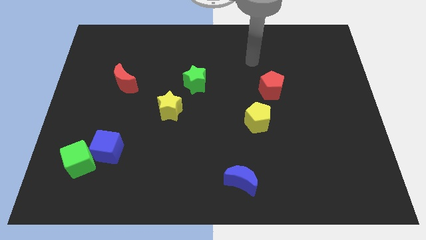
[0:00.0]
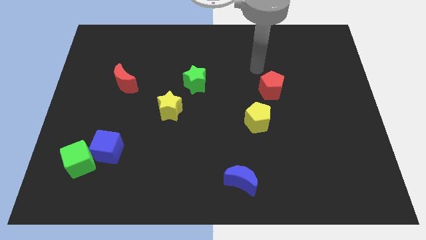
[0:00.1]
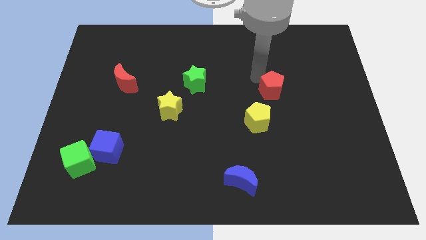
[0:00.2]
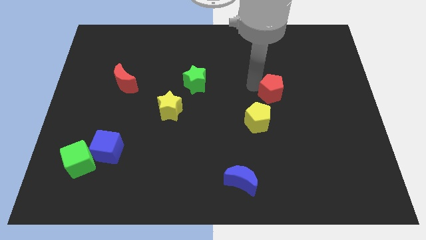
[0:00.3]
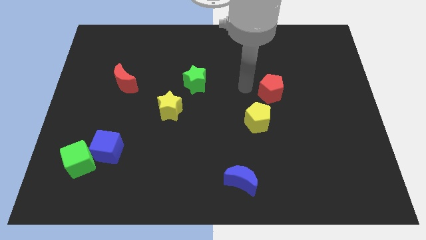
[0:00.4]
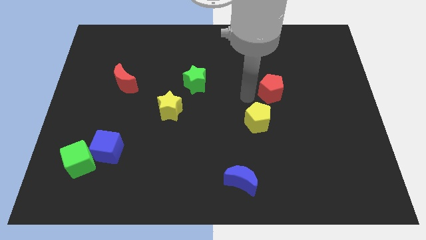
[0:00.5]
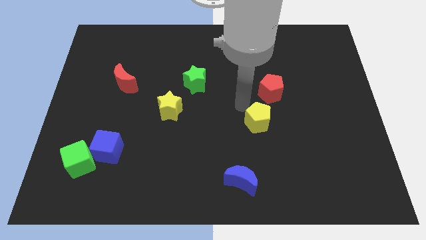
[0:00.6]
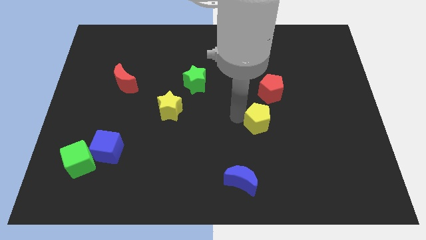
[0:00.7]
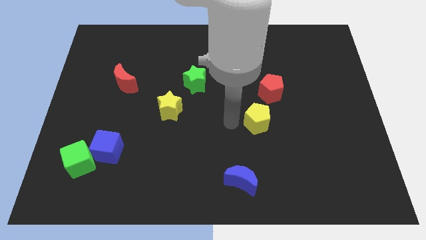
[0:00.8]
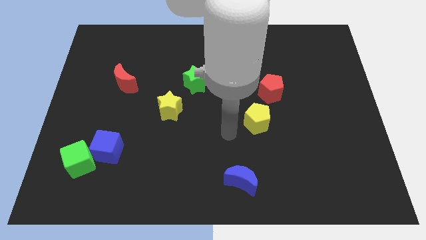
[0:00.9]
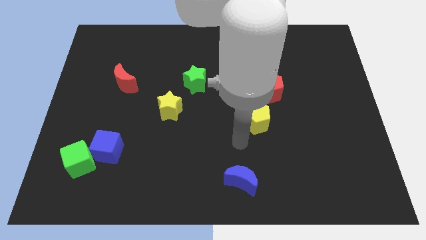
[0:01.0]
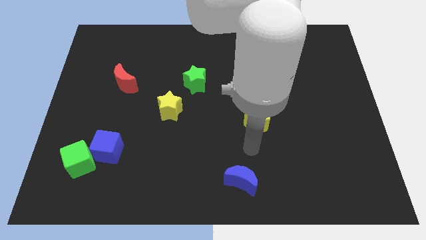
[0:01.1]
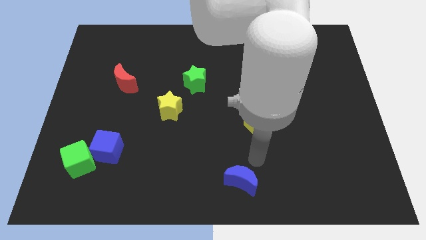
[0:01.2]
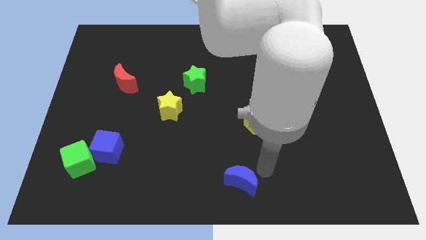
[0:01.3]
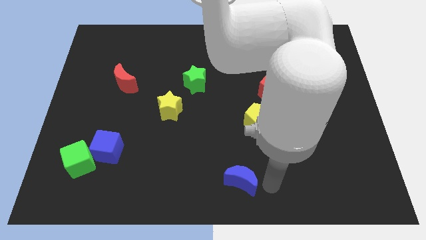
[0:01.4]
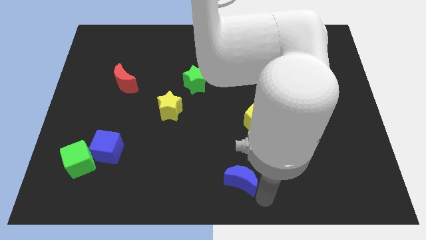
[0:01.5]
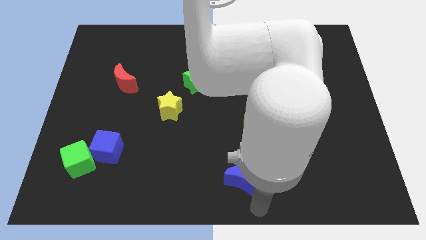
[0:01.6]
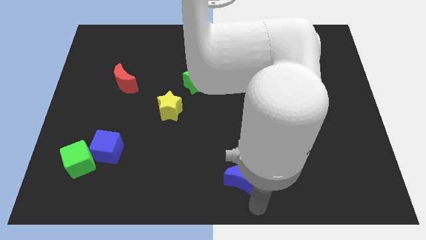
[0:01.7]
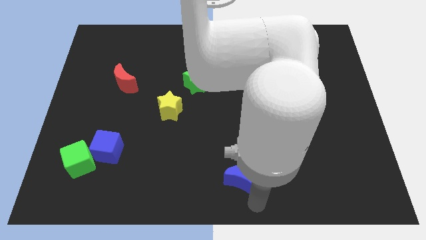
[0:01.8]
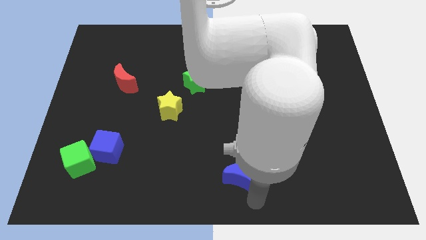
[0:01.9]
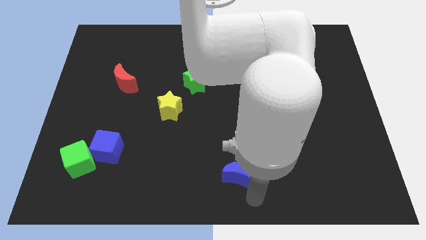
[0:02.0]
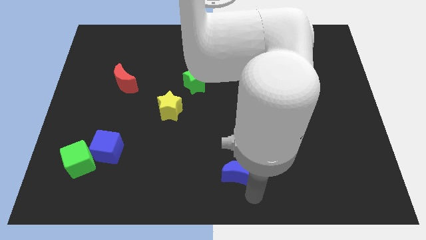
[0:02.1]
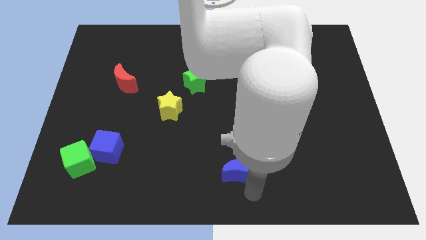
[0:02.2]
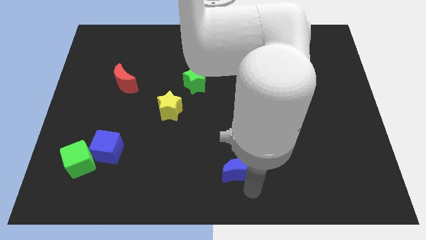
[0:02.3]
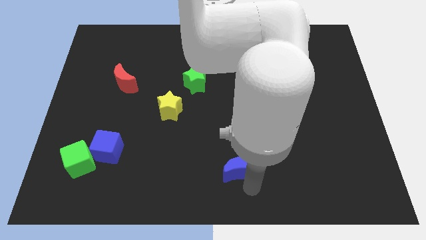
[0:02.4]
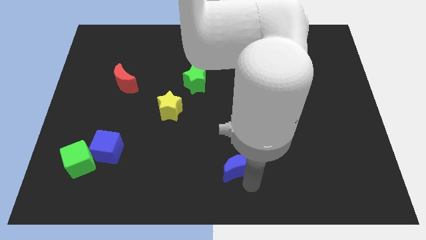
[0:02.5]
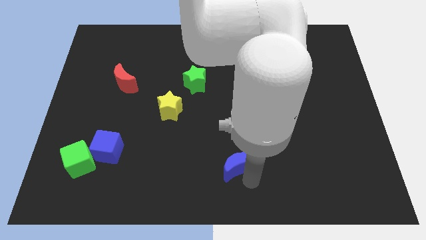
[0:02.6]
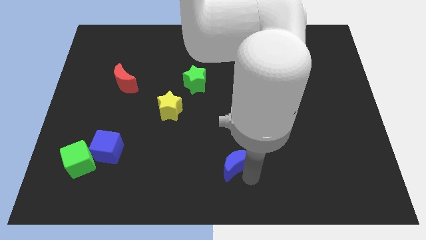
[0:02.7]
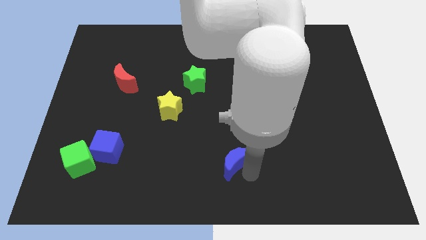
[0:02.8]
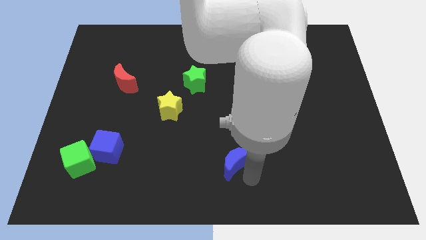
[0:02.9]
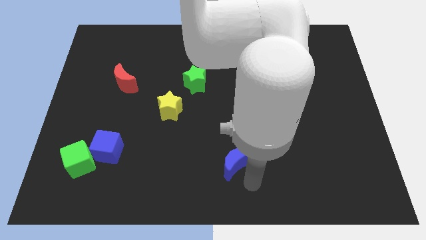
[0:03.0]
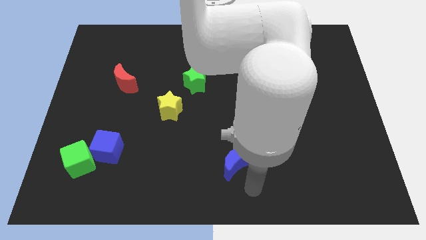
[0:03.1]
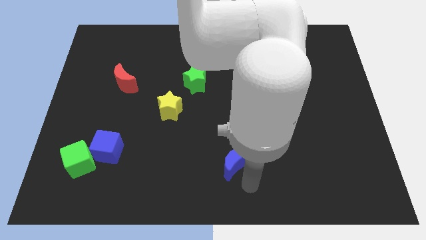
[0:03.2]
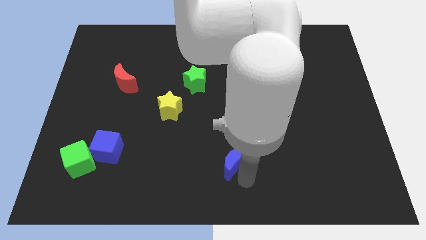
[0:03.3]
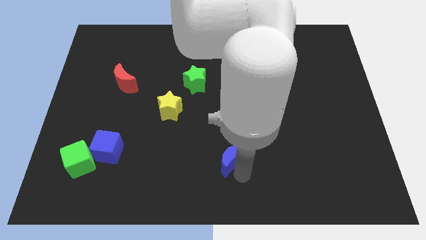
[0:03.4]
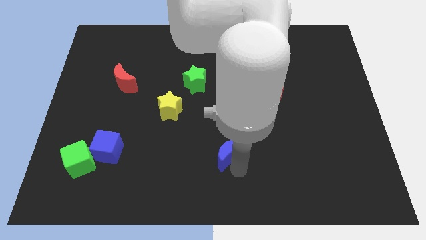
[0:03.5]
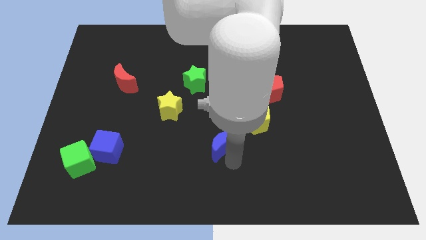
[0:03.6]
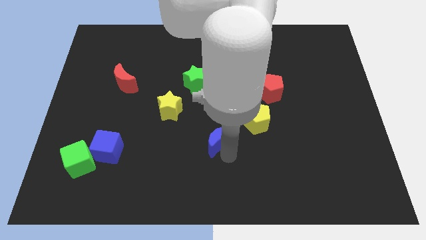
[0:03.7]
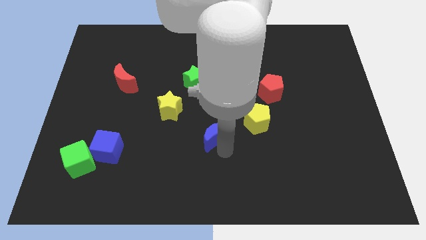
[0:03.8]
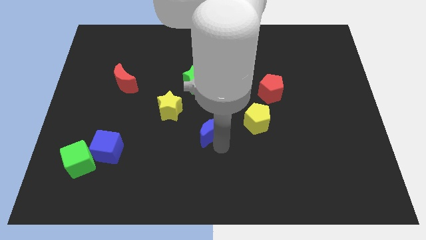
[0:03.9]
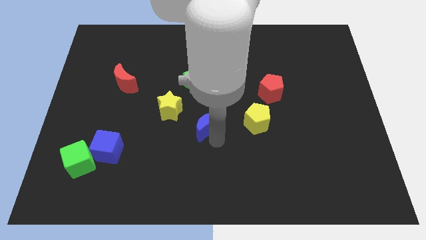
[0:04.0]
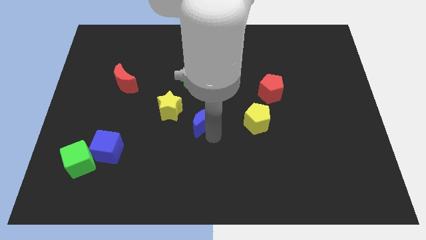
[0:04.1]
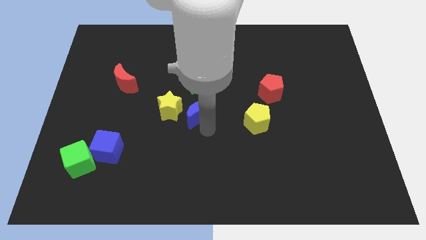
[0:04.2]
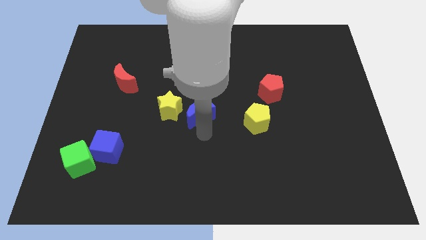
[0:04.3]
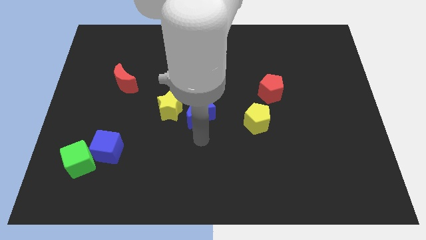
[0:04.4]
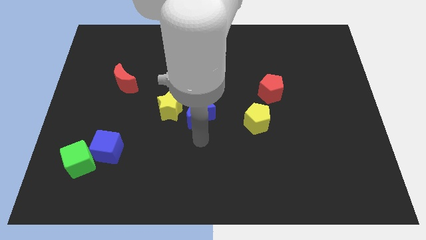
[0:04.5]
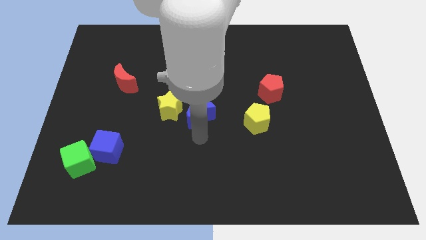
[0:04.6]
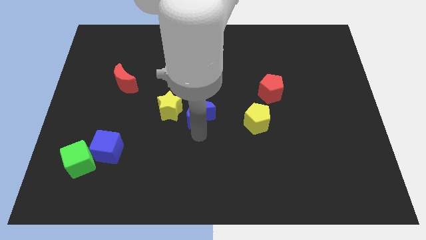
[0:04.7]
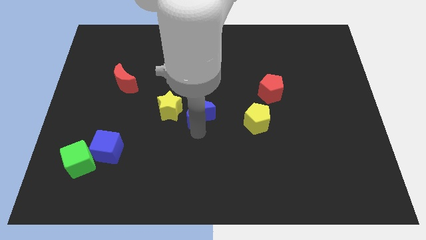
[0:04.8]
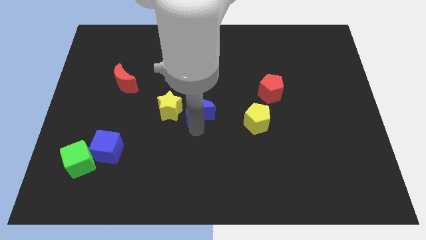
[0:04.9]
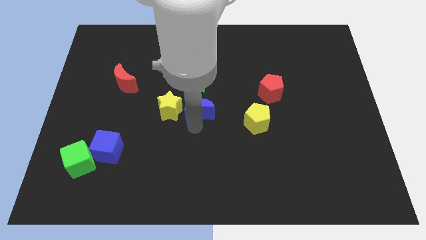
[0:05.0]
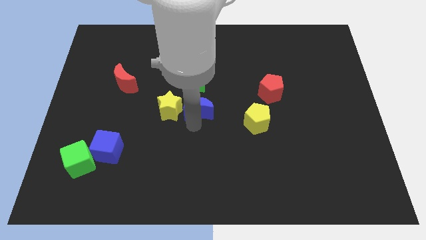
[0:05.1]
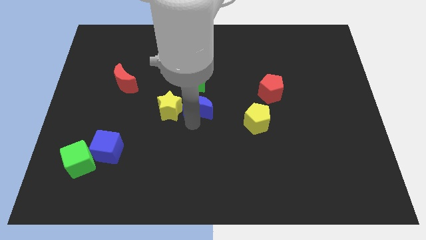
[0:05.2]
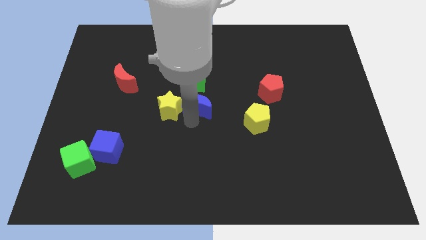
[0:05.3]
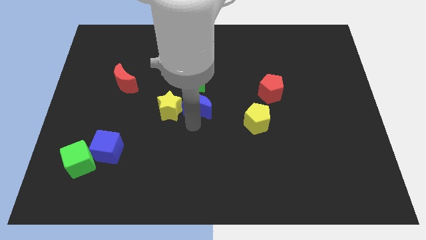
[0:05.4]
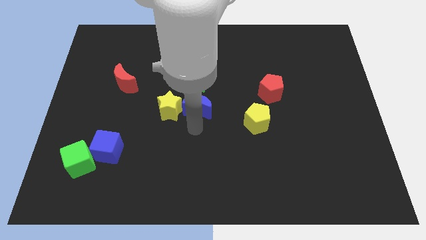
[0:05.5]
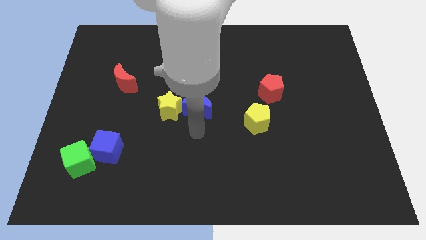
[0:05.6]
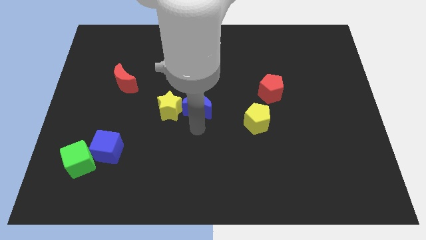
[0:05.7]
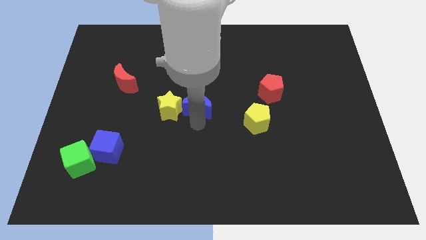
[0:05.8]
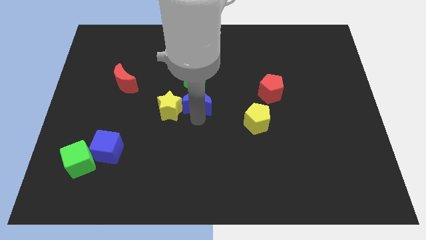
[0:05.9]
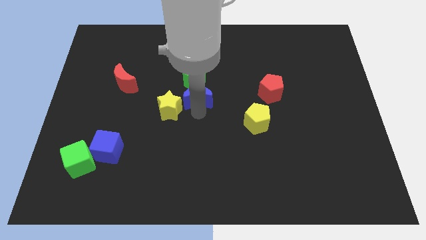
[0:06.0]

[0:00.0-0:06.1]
put the blue moon next to the green star

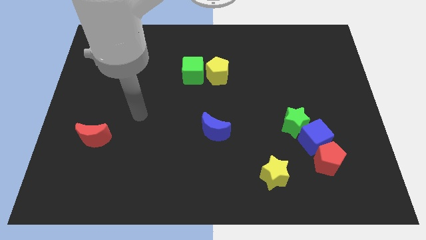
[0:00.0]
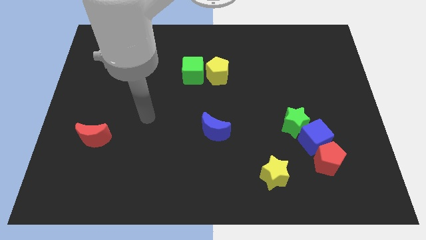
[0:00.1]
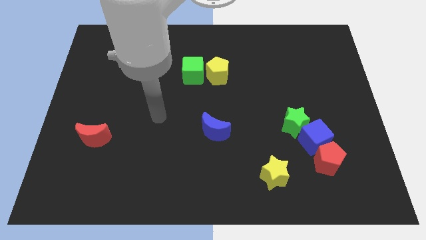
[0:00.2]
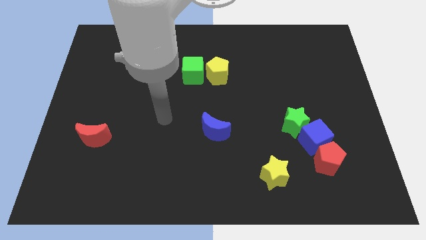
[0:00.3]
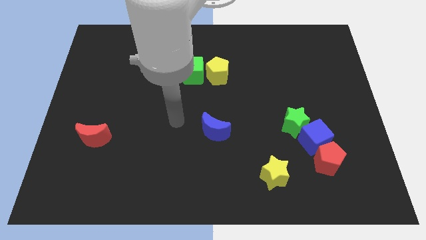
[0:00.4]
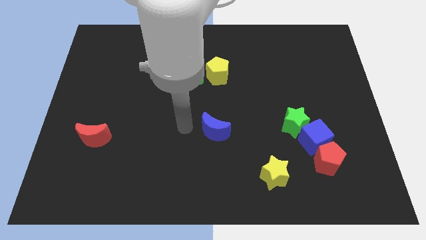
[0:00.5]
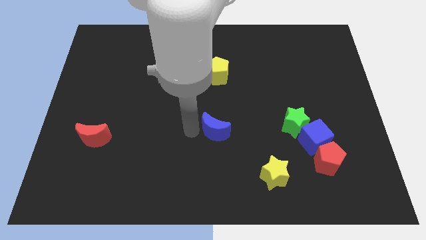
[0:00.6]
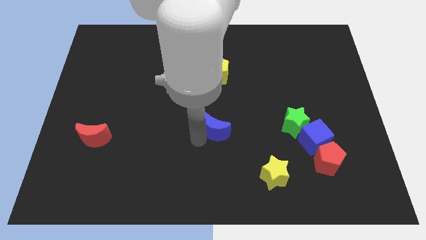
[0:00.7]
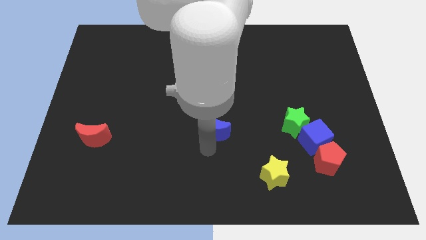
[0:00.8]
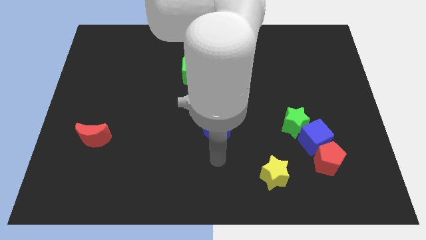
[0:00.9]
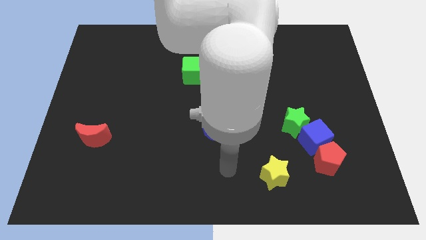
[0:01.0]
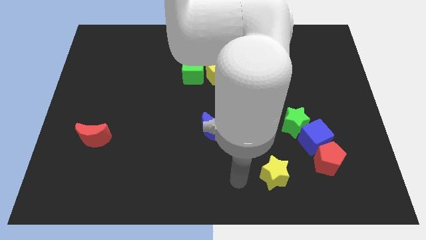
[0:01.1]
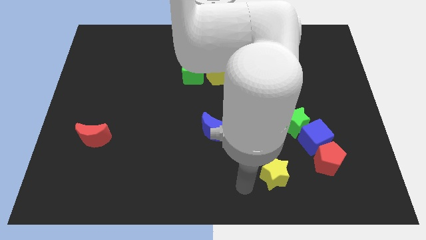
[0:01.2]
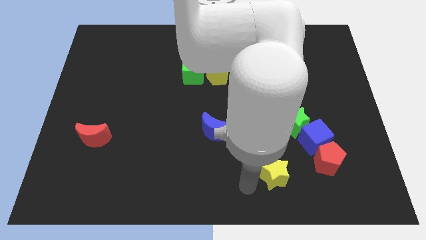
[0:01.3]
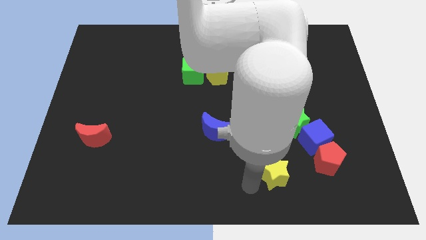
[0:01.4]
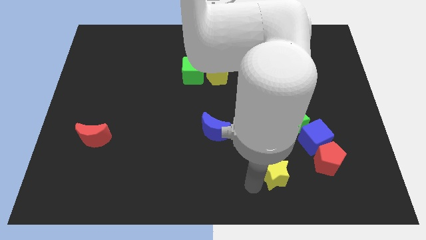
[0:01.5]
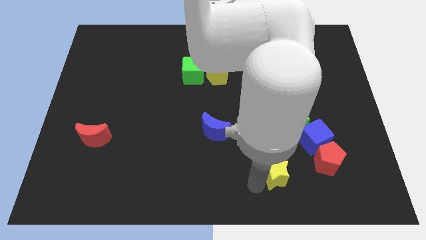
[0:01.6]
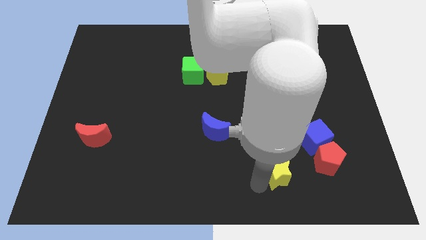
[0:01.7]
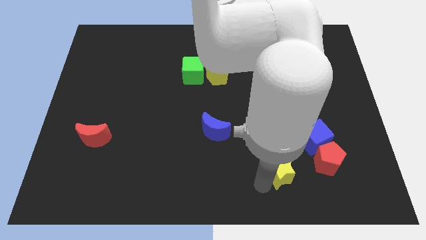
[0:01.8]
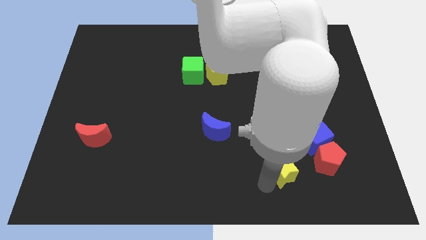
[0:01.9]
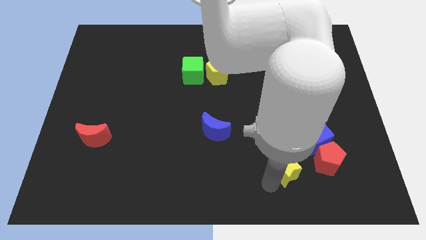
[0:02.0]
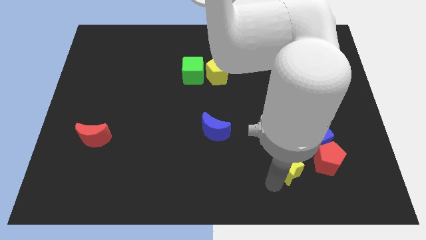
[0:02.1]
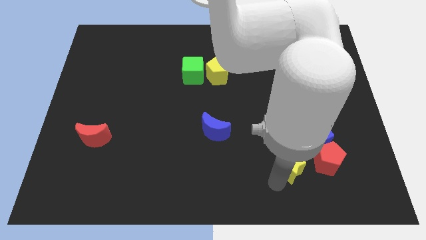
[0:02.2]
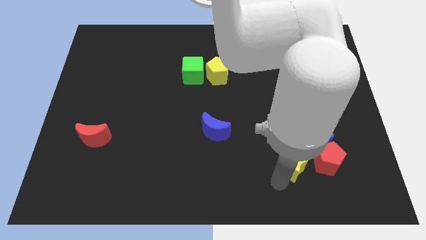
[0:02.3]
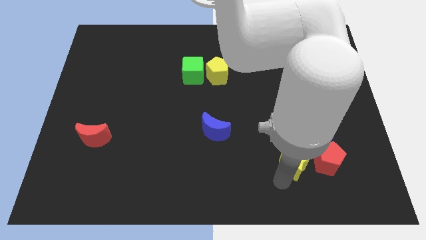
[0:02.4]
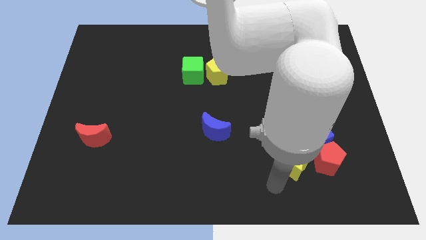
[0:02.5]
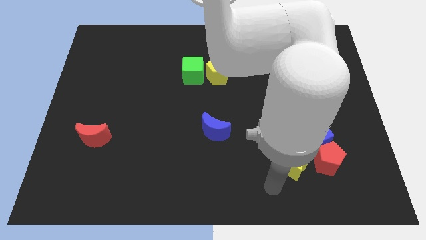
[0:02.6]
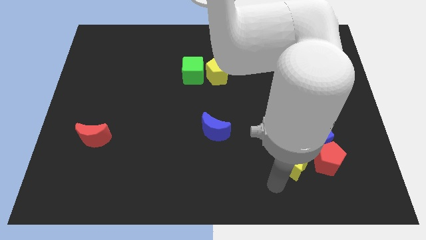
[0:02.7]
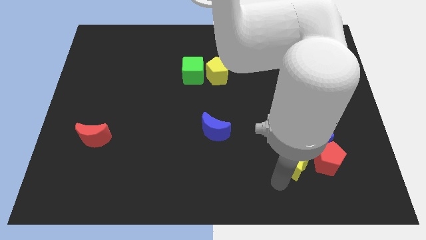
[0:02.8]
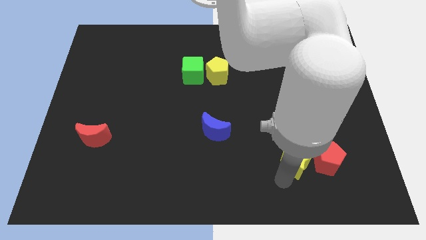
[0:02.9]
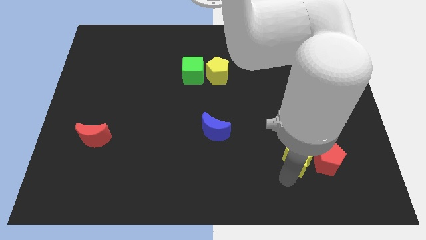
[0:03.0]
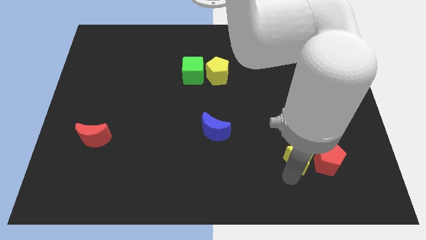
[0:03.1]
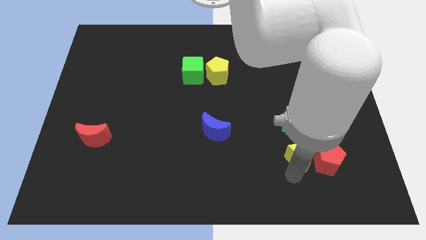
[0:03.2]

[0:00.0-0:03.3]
move the yellow star next to the blue cube
